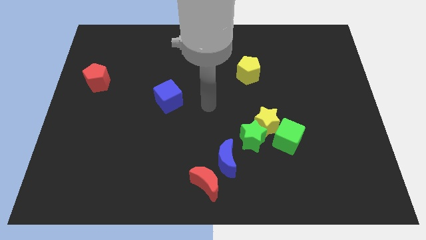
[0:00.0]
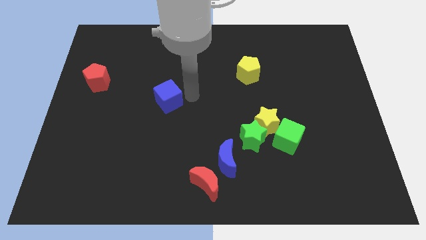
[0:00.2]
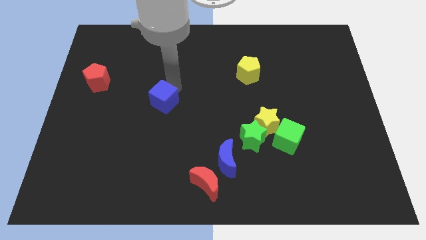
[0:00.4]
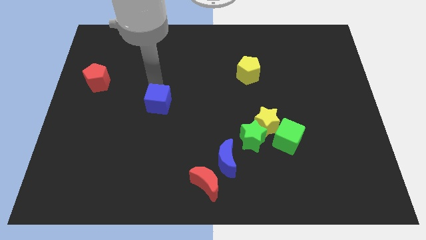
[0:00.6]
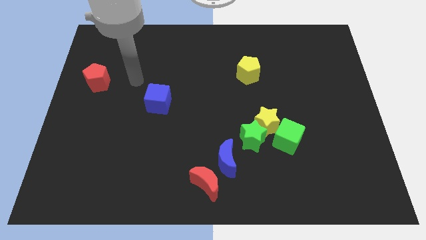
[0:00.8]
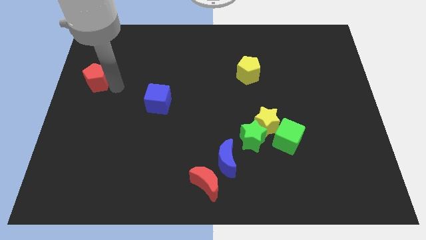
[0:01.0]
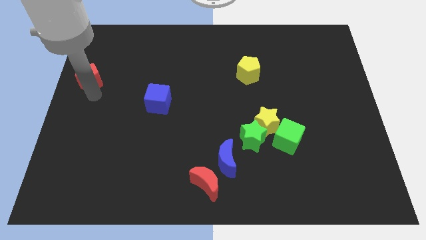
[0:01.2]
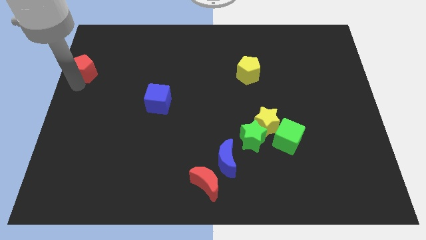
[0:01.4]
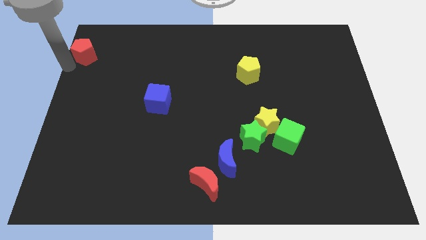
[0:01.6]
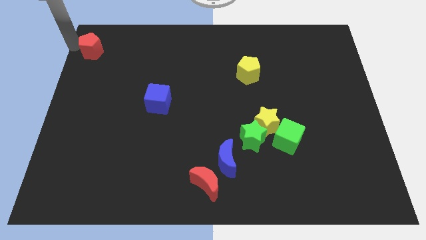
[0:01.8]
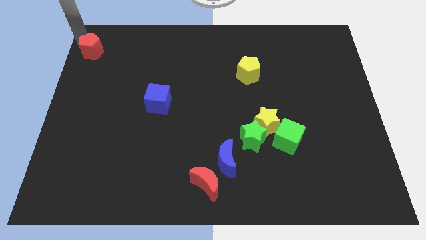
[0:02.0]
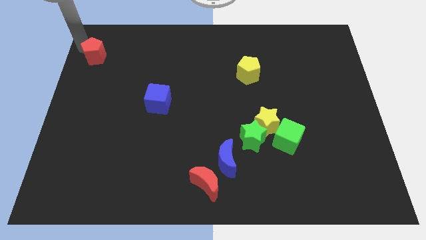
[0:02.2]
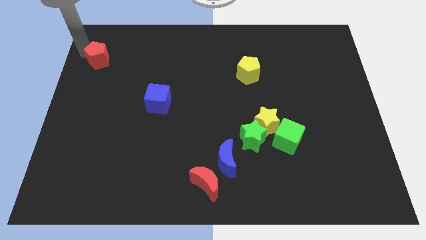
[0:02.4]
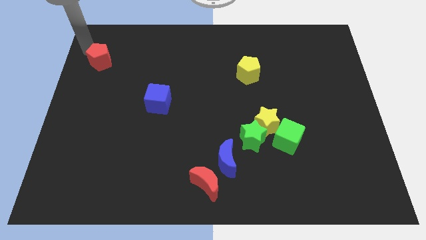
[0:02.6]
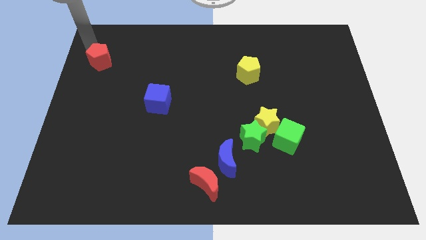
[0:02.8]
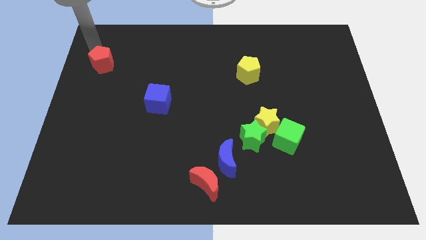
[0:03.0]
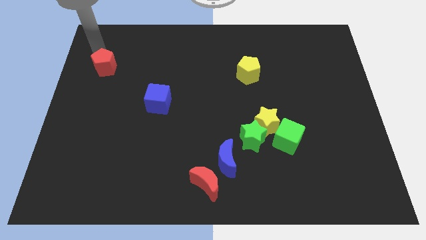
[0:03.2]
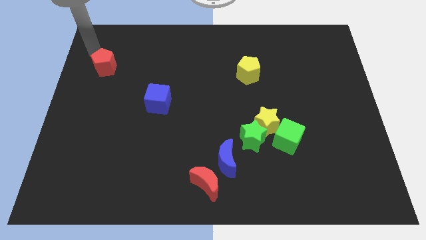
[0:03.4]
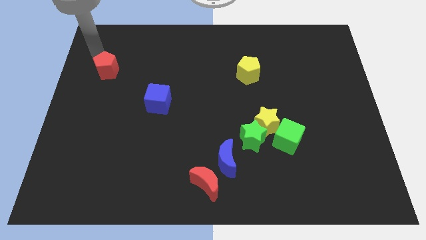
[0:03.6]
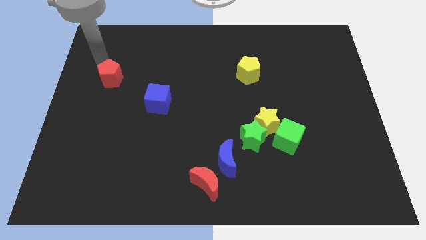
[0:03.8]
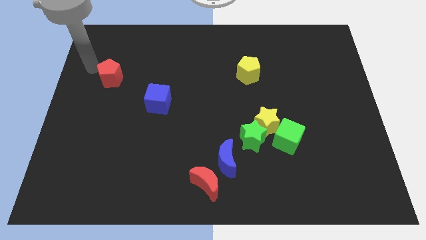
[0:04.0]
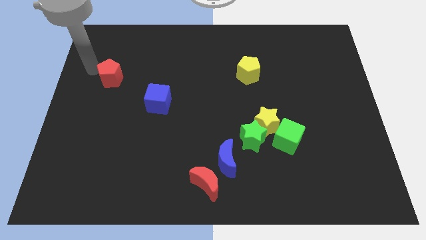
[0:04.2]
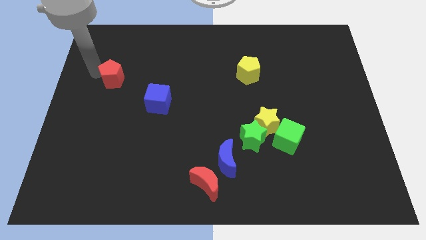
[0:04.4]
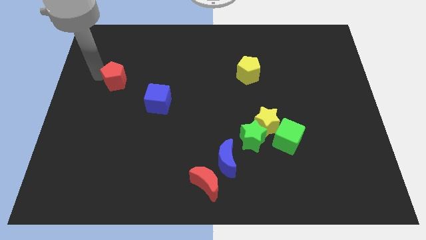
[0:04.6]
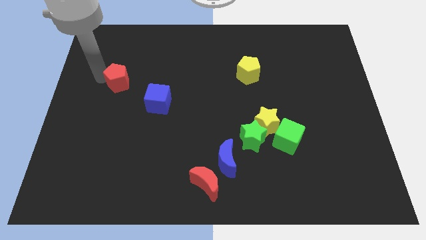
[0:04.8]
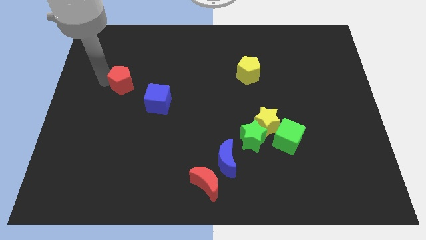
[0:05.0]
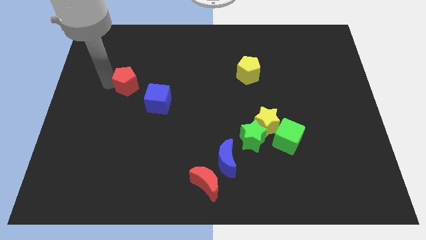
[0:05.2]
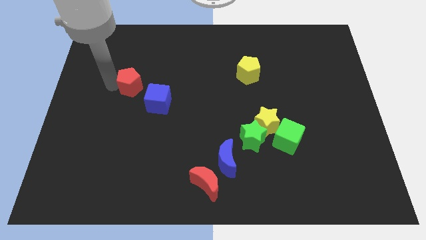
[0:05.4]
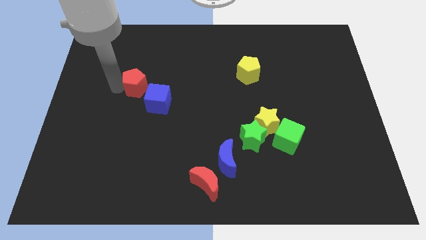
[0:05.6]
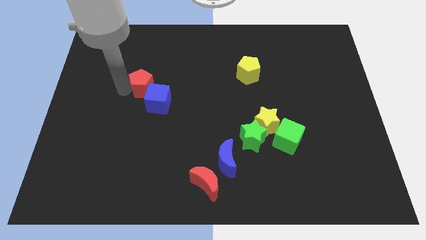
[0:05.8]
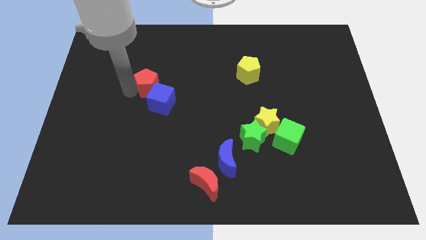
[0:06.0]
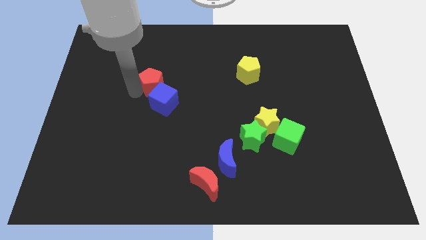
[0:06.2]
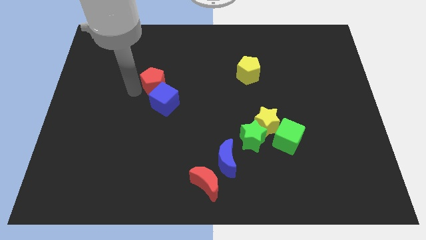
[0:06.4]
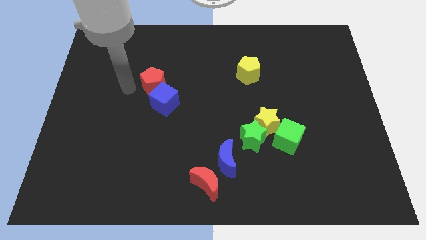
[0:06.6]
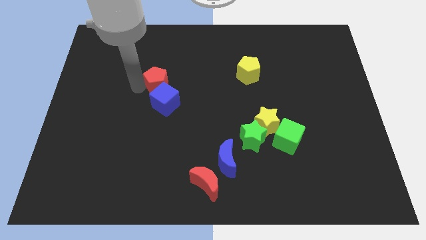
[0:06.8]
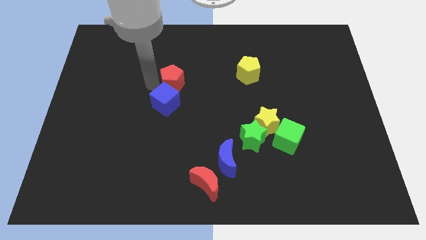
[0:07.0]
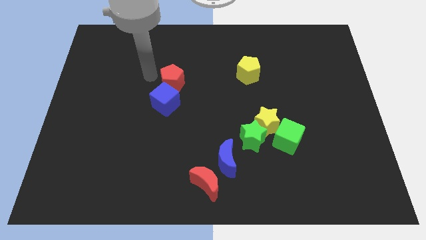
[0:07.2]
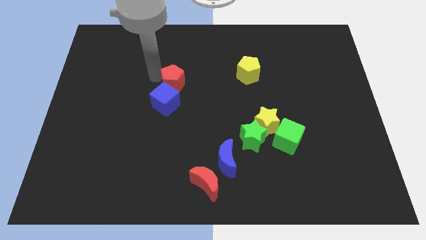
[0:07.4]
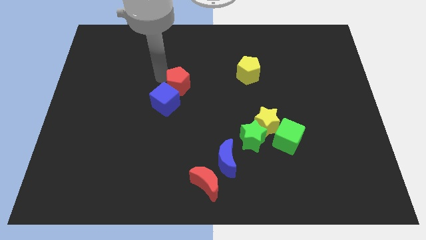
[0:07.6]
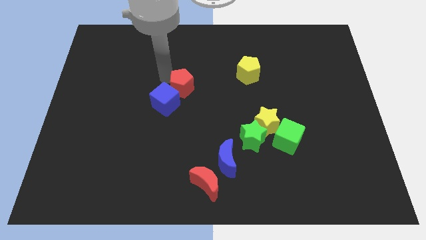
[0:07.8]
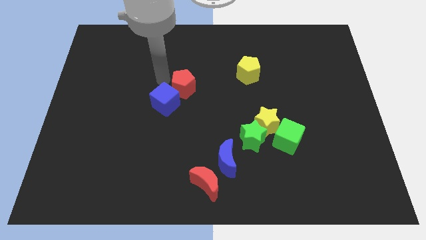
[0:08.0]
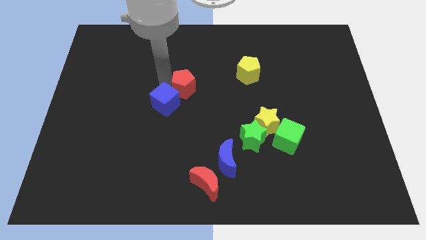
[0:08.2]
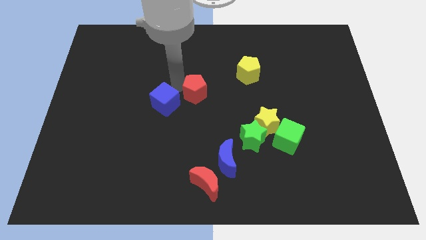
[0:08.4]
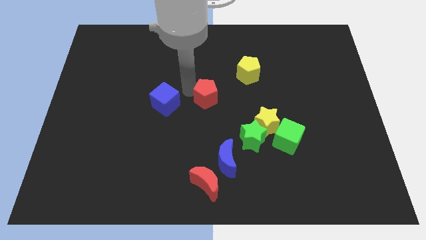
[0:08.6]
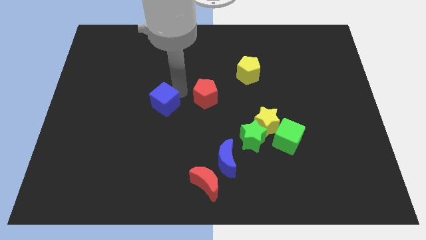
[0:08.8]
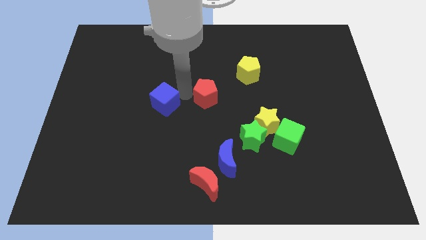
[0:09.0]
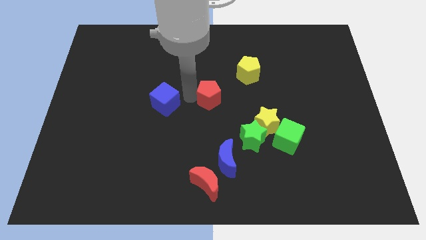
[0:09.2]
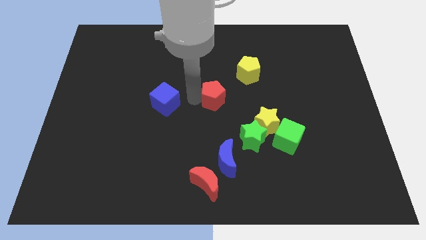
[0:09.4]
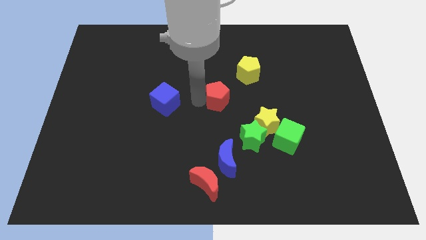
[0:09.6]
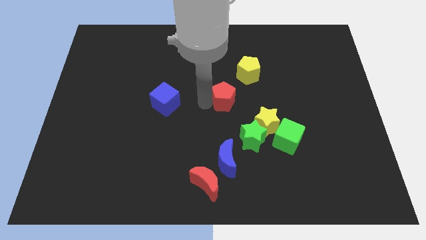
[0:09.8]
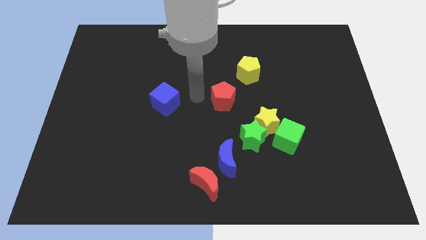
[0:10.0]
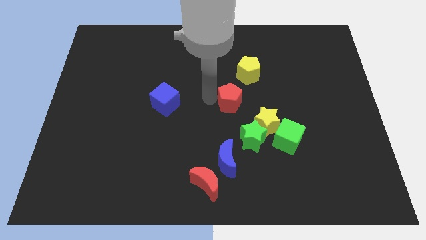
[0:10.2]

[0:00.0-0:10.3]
push the red pentagon to the bottom of the yellow pentagon

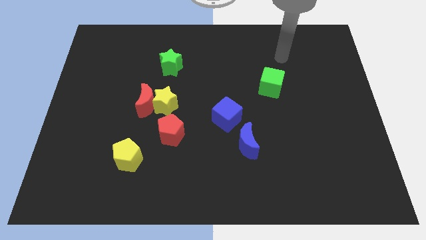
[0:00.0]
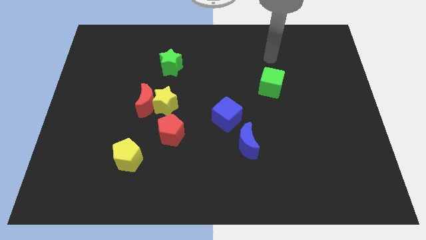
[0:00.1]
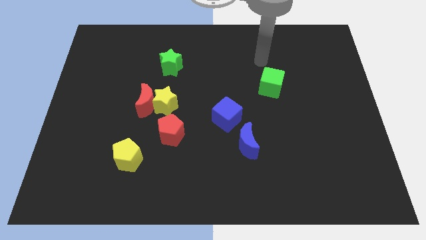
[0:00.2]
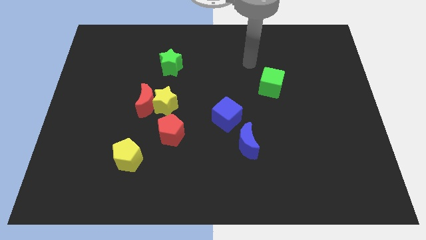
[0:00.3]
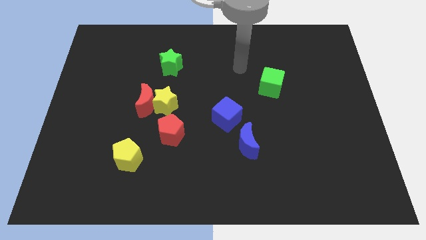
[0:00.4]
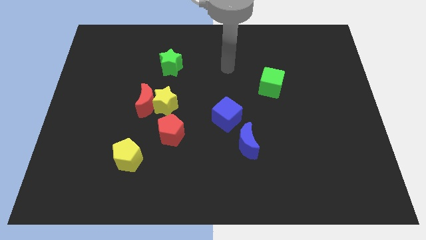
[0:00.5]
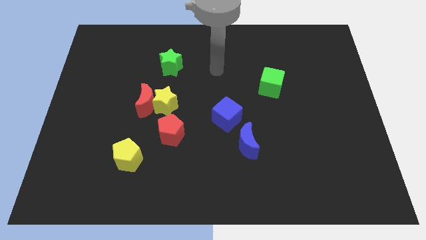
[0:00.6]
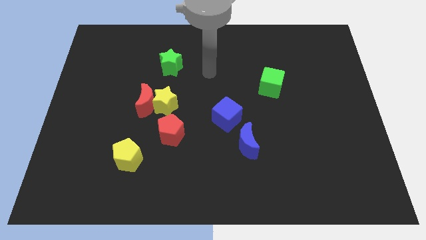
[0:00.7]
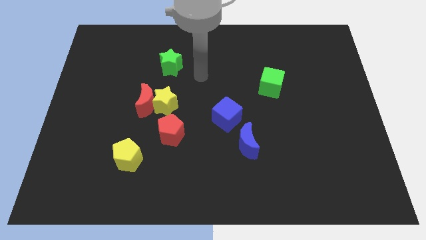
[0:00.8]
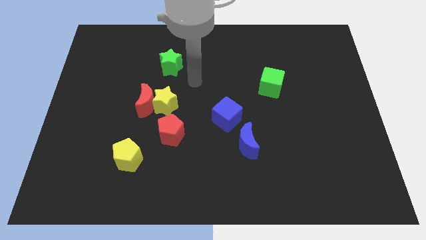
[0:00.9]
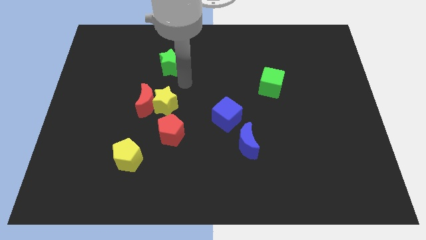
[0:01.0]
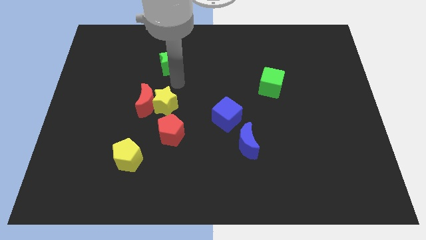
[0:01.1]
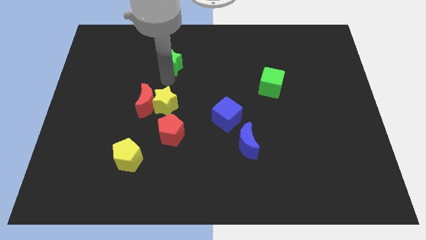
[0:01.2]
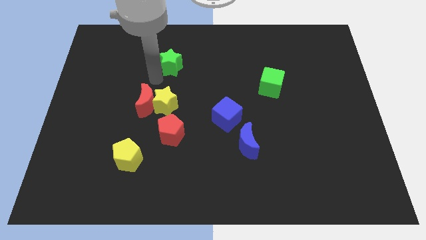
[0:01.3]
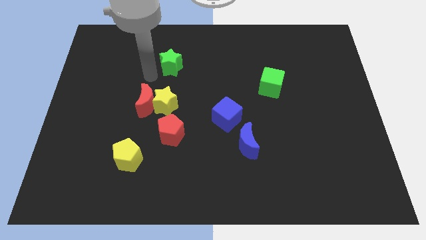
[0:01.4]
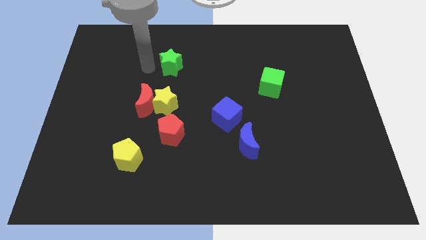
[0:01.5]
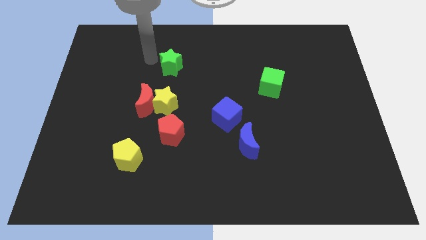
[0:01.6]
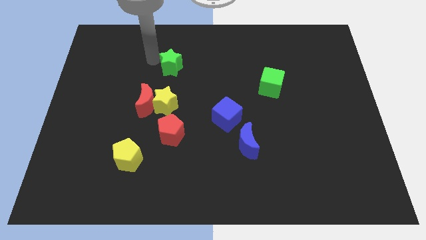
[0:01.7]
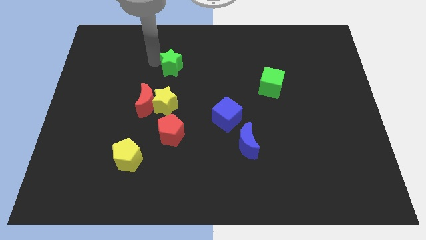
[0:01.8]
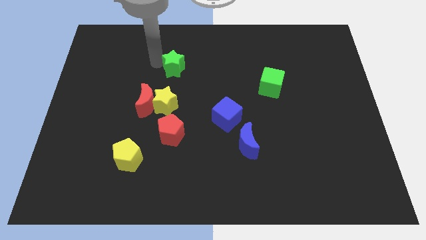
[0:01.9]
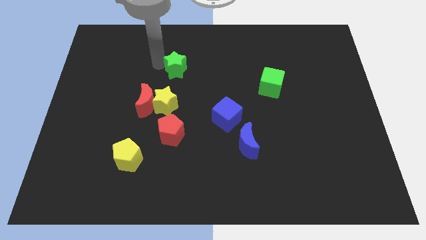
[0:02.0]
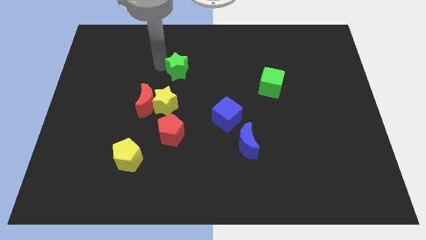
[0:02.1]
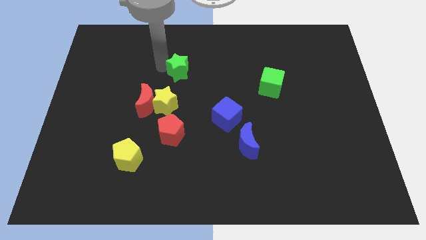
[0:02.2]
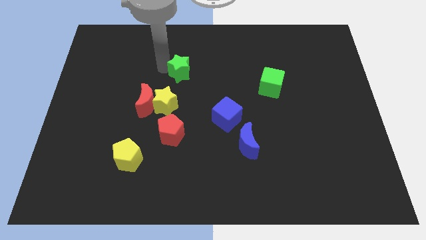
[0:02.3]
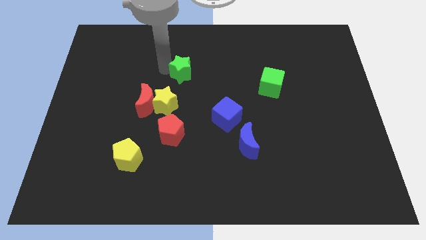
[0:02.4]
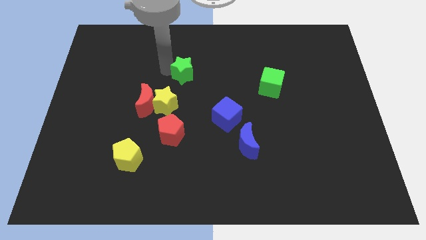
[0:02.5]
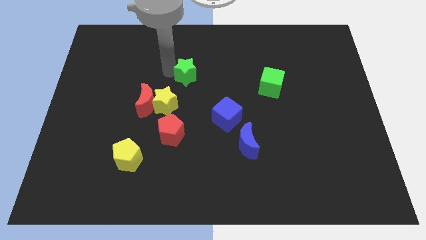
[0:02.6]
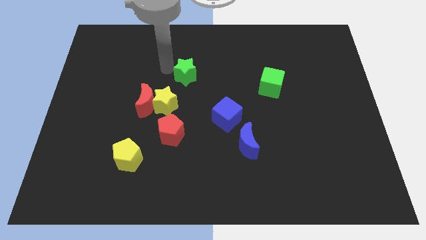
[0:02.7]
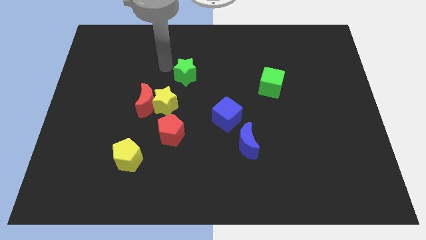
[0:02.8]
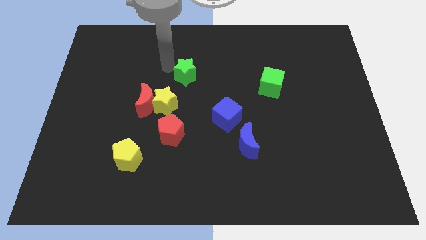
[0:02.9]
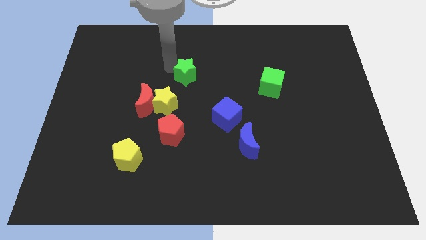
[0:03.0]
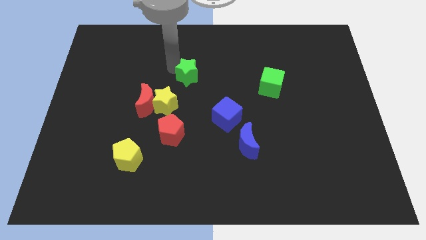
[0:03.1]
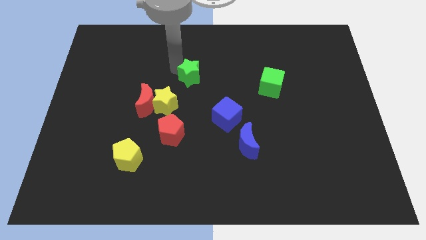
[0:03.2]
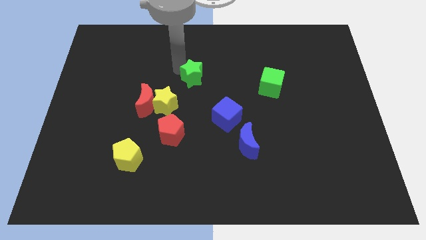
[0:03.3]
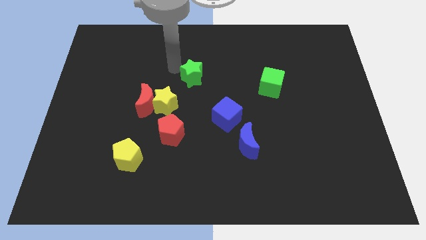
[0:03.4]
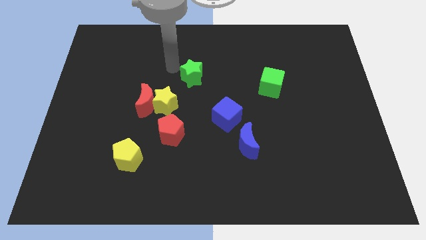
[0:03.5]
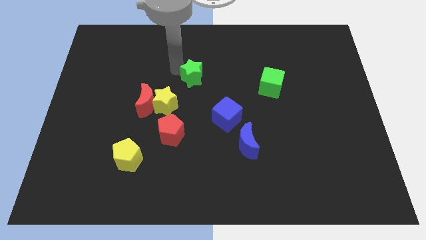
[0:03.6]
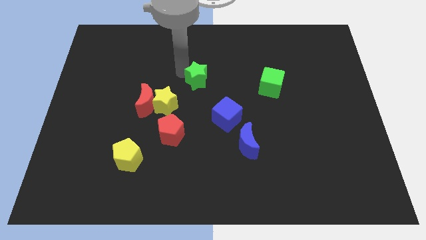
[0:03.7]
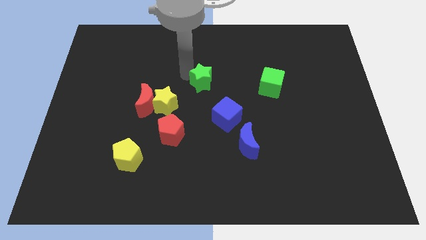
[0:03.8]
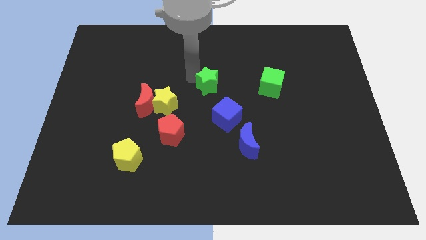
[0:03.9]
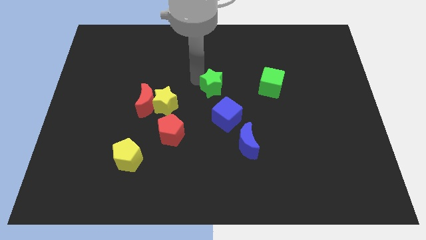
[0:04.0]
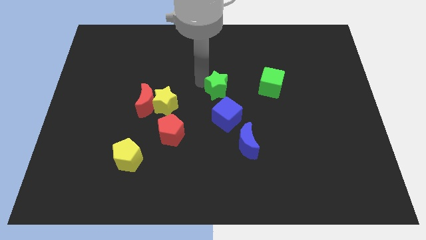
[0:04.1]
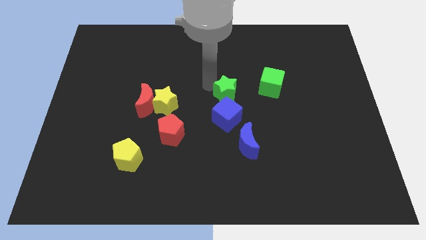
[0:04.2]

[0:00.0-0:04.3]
push the green star to the top side of the blue moon
